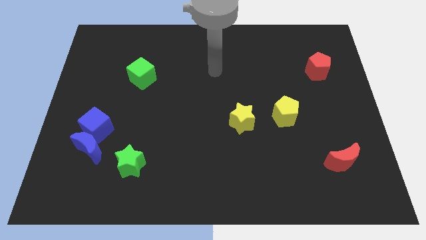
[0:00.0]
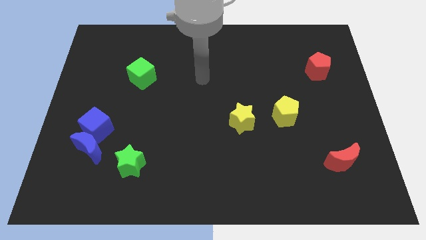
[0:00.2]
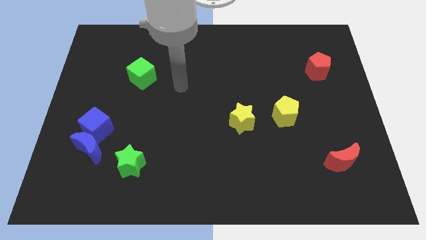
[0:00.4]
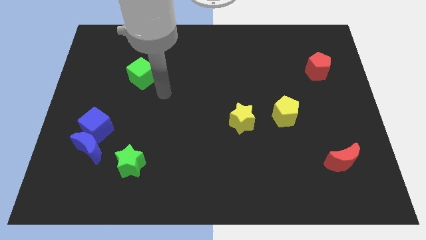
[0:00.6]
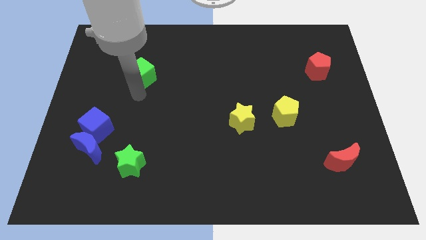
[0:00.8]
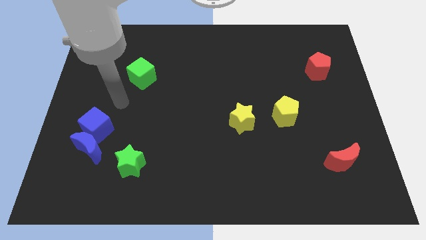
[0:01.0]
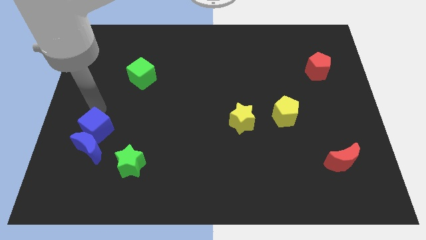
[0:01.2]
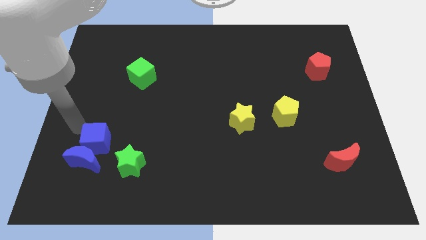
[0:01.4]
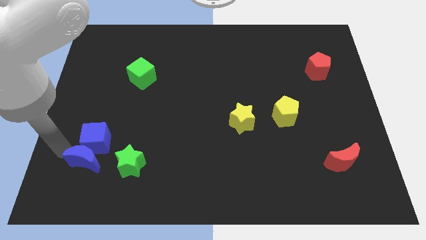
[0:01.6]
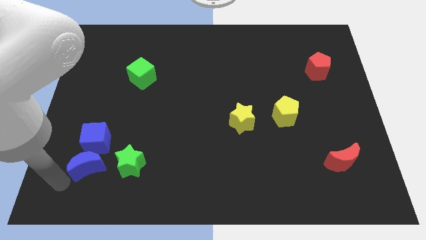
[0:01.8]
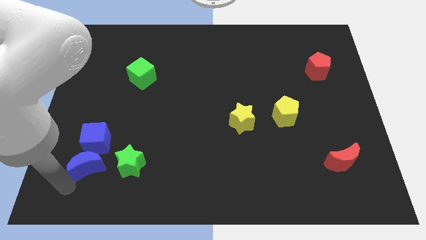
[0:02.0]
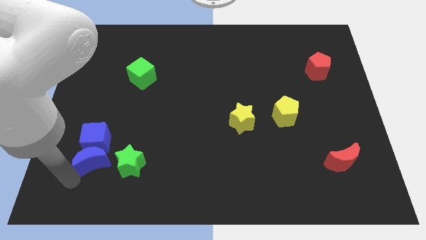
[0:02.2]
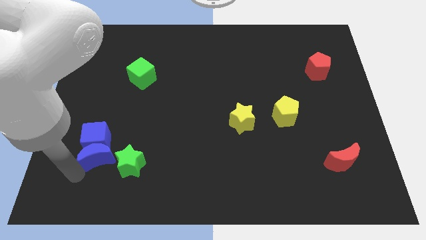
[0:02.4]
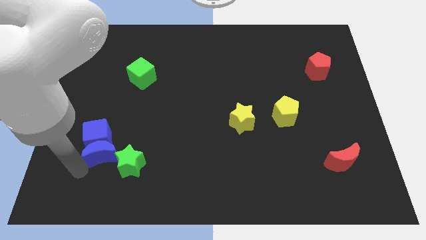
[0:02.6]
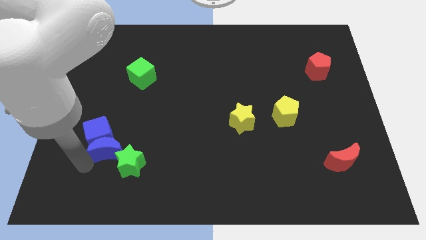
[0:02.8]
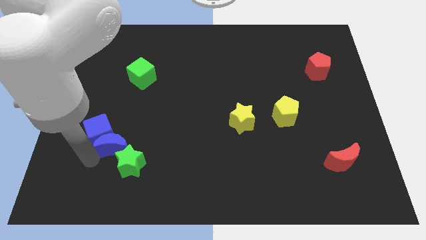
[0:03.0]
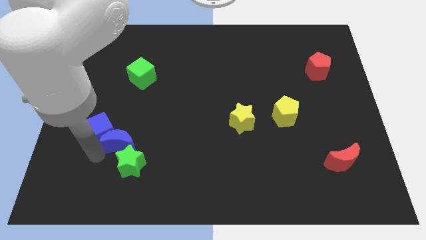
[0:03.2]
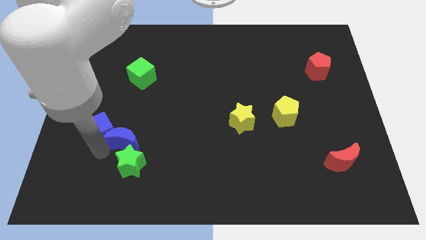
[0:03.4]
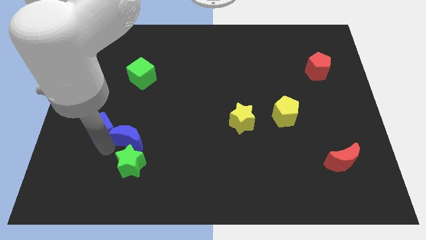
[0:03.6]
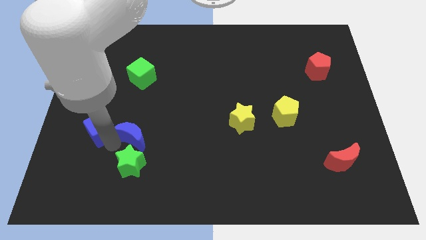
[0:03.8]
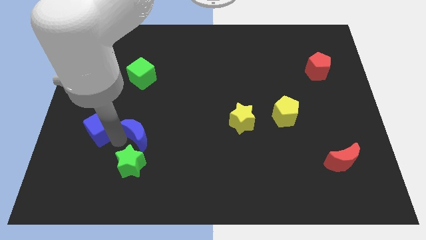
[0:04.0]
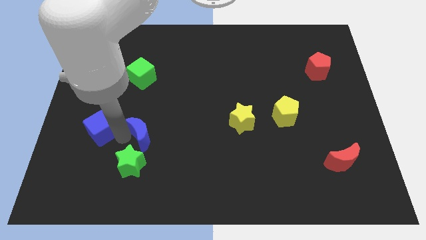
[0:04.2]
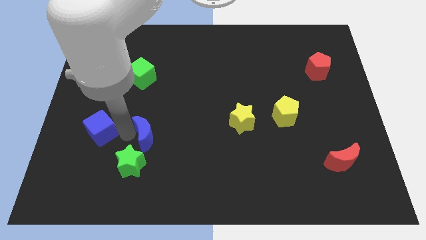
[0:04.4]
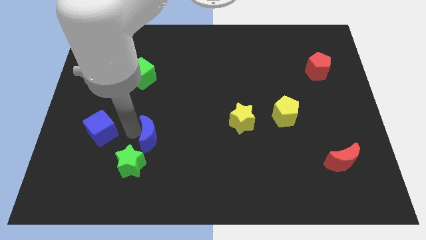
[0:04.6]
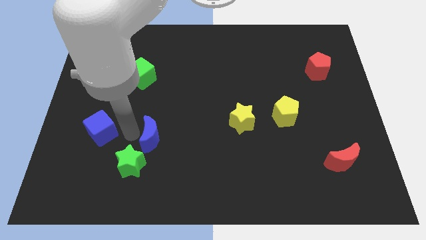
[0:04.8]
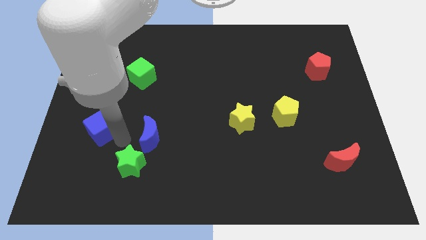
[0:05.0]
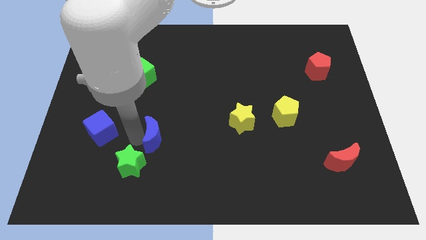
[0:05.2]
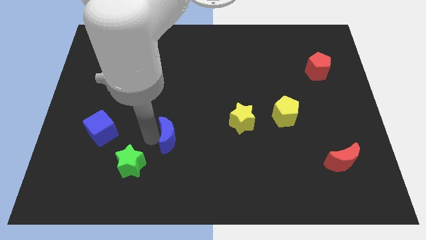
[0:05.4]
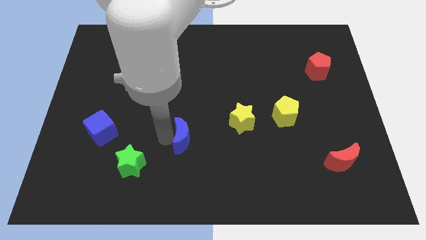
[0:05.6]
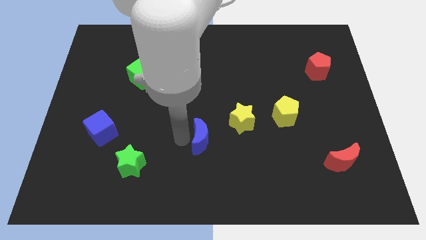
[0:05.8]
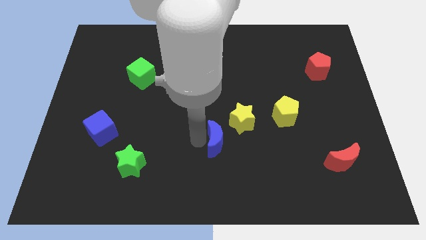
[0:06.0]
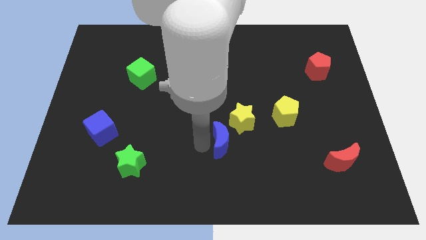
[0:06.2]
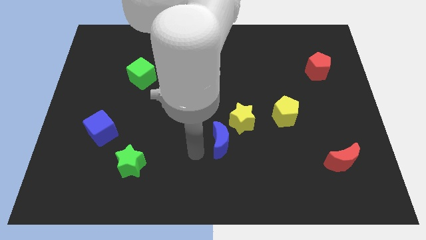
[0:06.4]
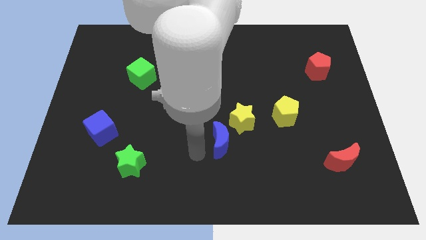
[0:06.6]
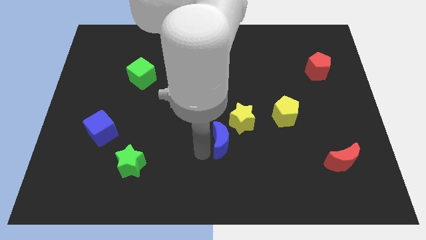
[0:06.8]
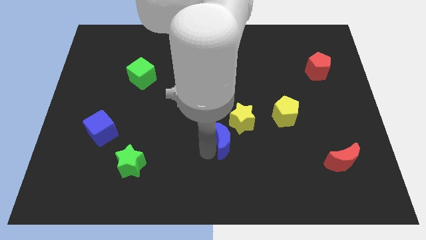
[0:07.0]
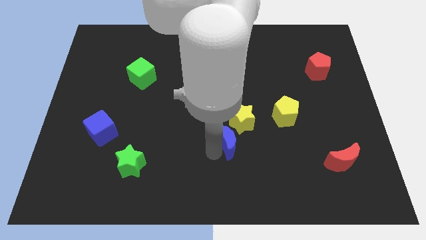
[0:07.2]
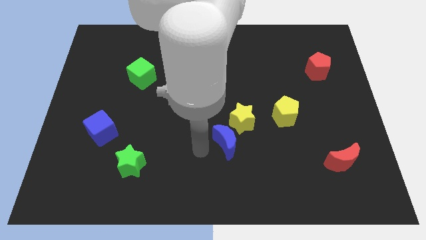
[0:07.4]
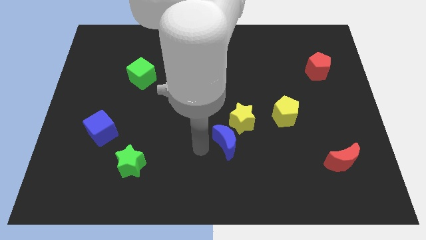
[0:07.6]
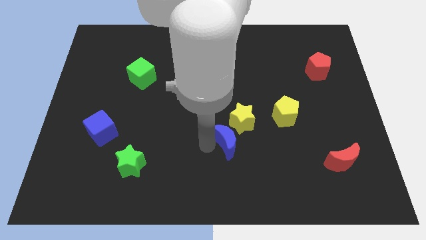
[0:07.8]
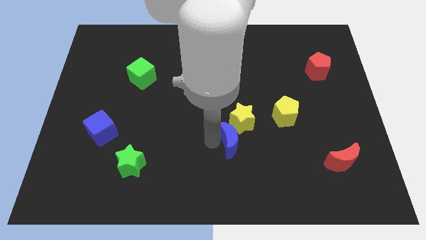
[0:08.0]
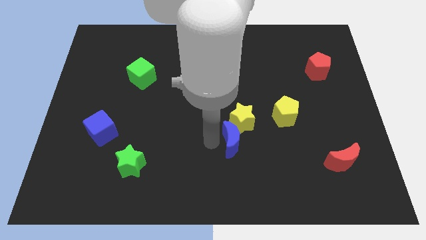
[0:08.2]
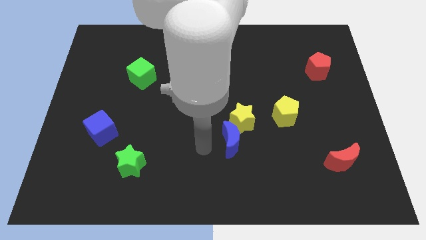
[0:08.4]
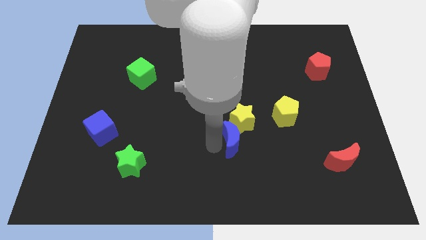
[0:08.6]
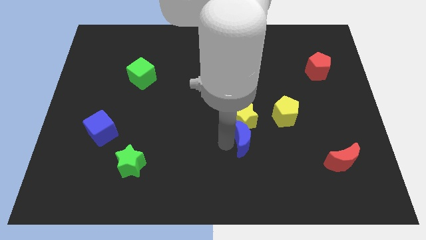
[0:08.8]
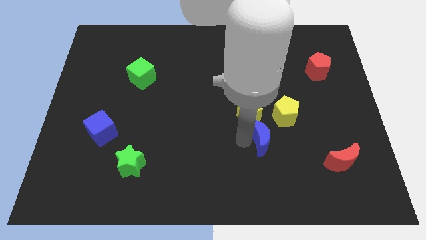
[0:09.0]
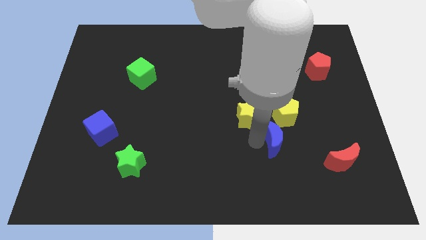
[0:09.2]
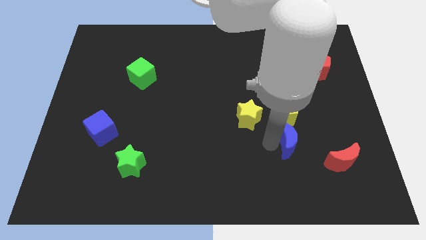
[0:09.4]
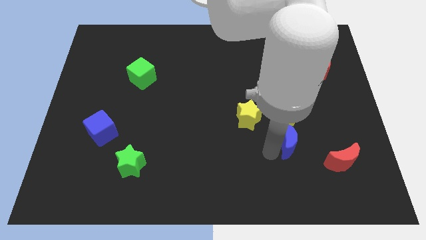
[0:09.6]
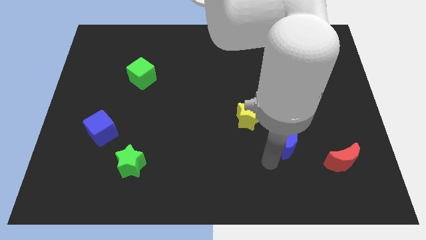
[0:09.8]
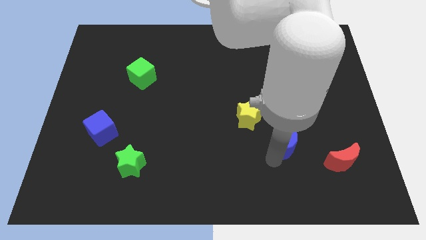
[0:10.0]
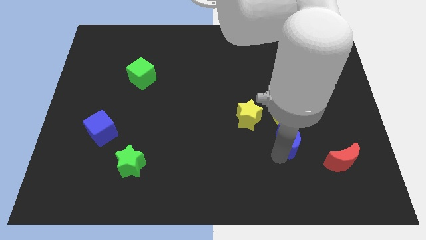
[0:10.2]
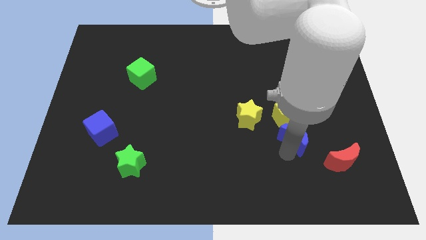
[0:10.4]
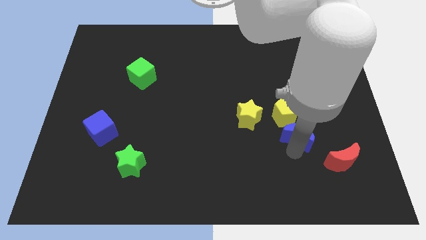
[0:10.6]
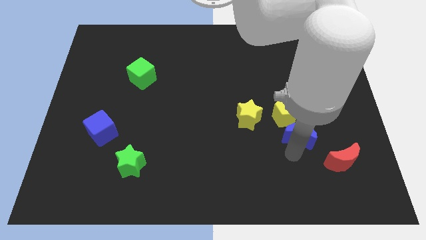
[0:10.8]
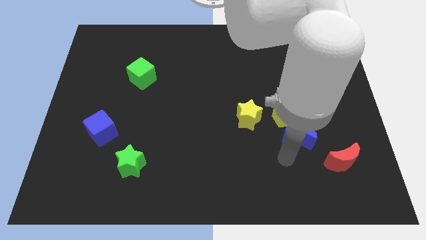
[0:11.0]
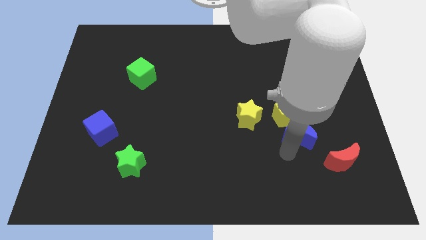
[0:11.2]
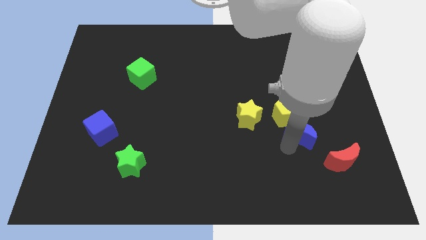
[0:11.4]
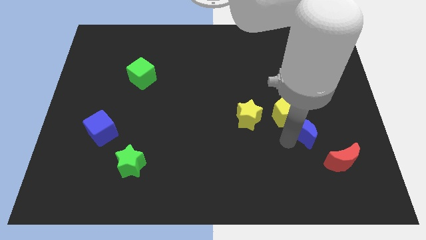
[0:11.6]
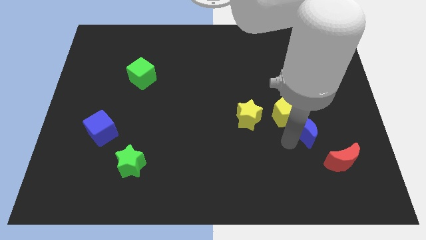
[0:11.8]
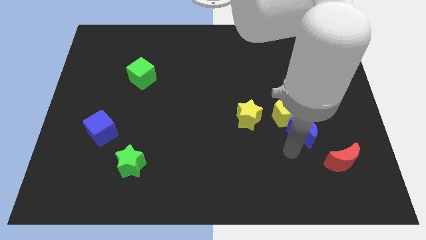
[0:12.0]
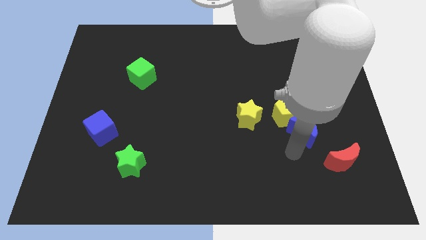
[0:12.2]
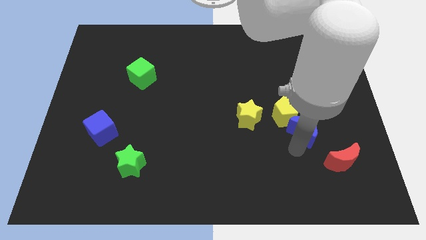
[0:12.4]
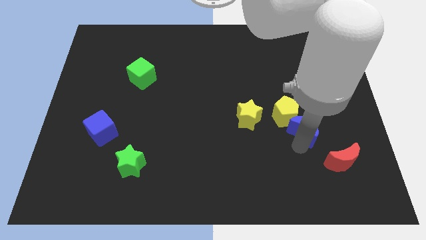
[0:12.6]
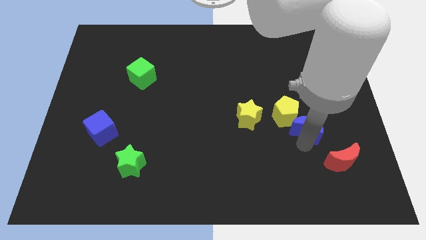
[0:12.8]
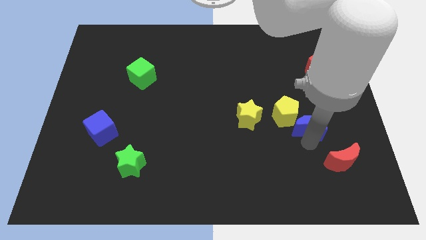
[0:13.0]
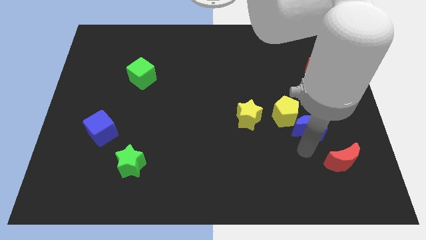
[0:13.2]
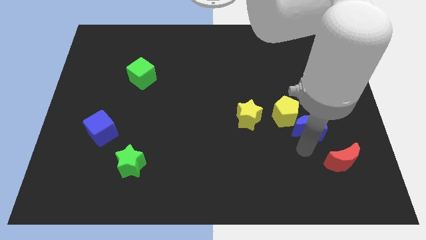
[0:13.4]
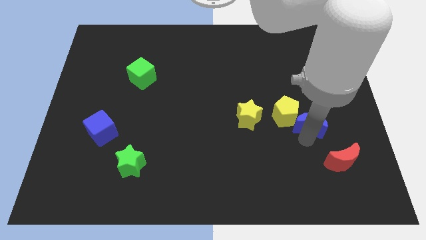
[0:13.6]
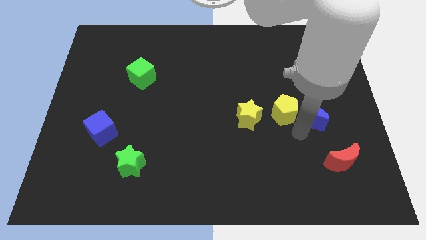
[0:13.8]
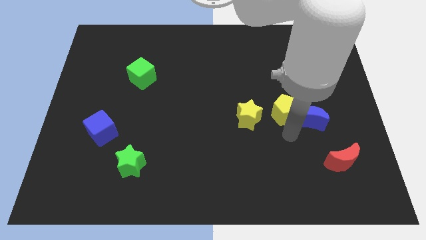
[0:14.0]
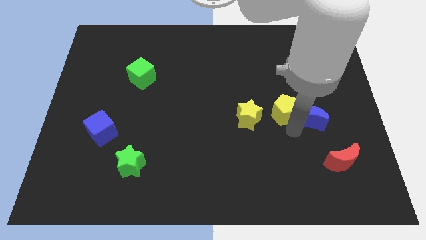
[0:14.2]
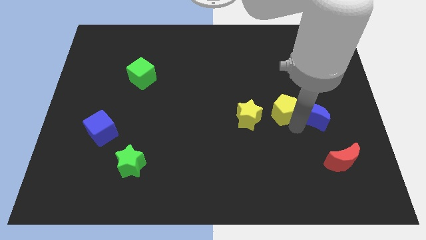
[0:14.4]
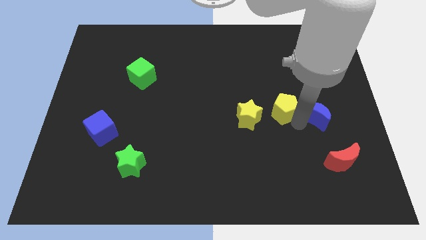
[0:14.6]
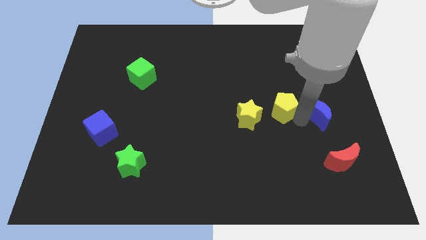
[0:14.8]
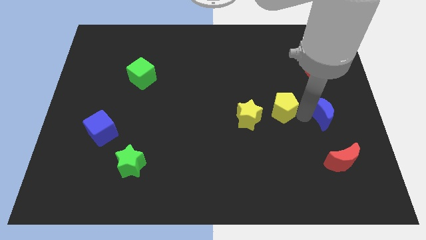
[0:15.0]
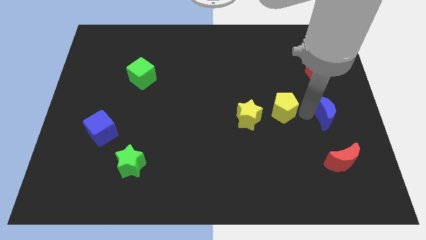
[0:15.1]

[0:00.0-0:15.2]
put the blue moon to the right side of the board
